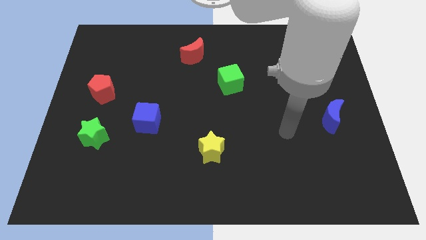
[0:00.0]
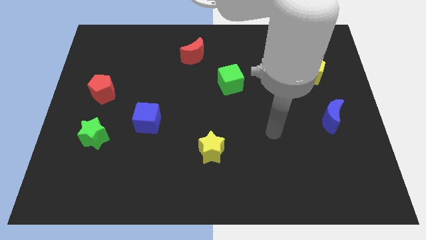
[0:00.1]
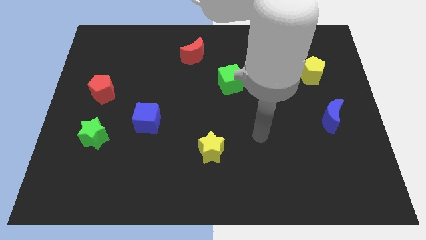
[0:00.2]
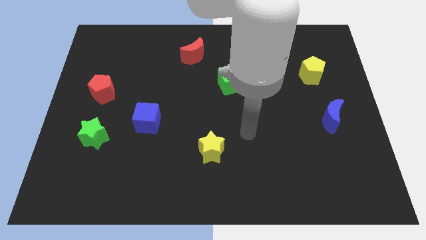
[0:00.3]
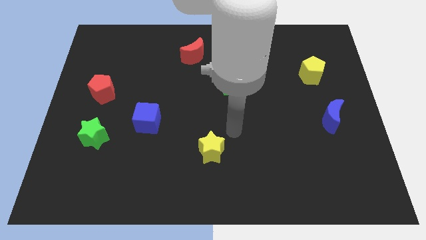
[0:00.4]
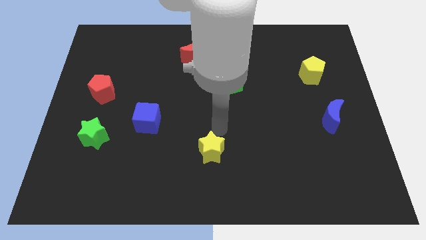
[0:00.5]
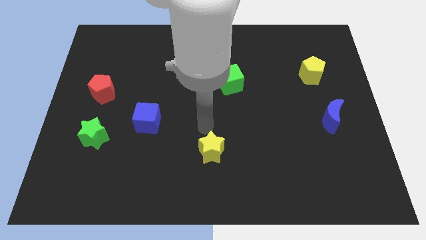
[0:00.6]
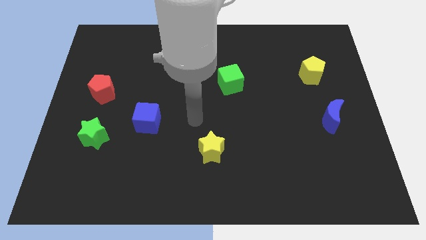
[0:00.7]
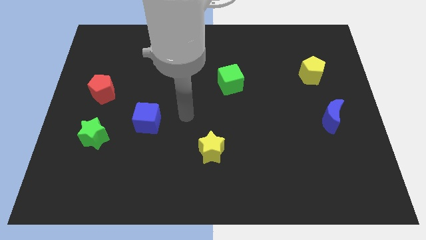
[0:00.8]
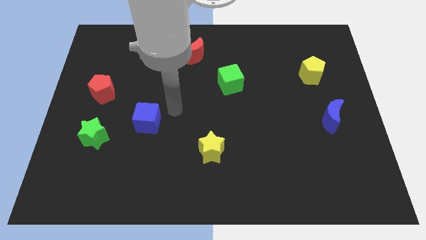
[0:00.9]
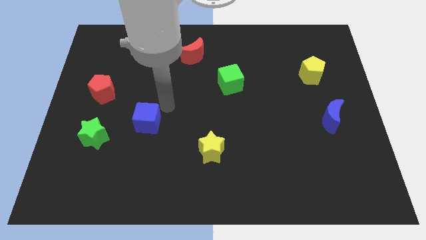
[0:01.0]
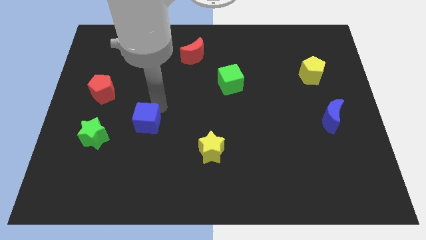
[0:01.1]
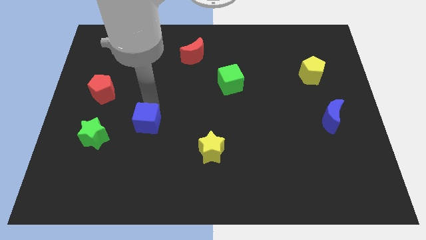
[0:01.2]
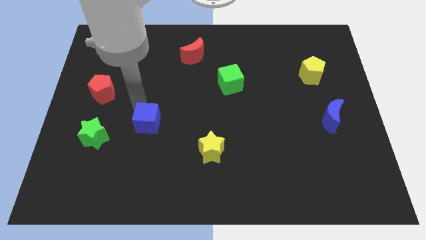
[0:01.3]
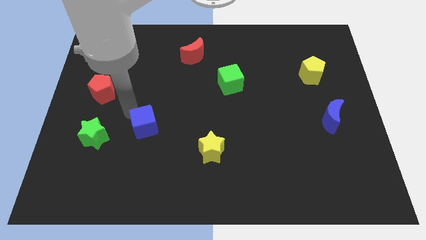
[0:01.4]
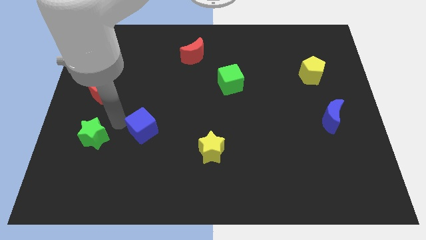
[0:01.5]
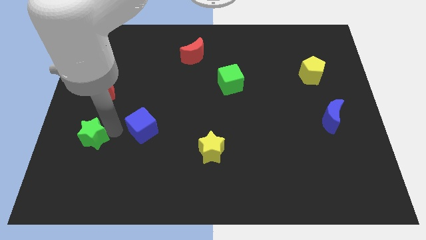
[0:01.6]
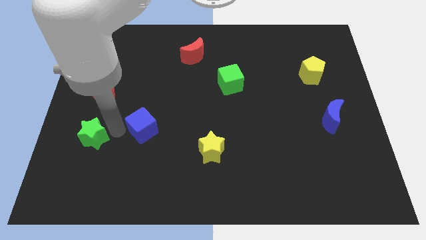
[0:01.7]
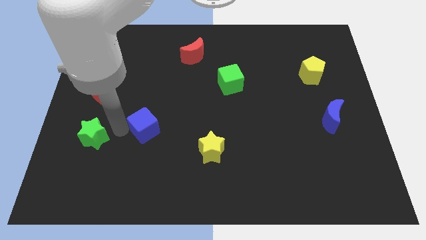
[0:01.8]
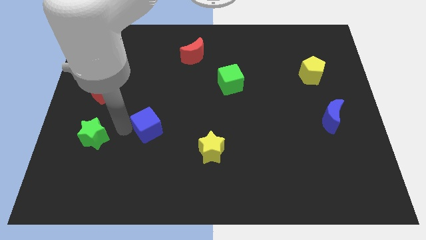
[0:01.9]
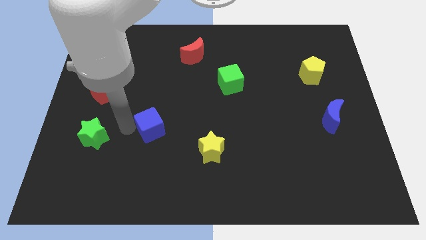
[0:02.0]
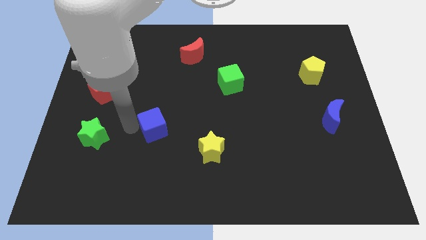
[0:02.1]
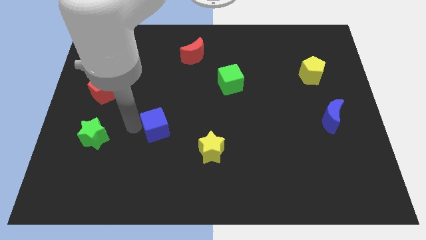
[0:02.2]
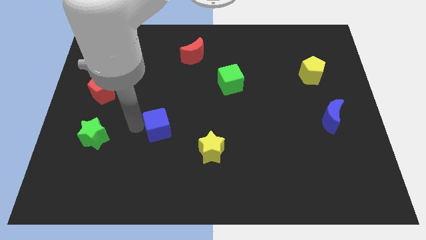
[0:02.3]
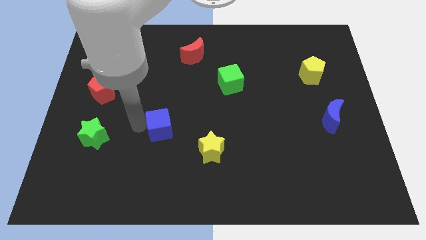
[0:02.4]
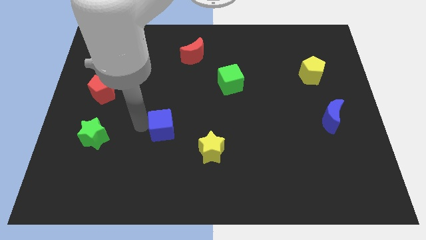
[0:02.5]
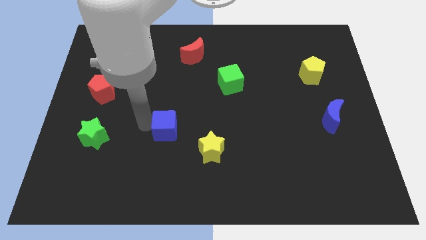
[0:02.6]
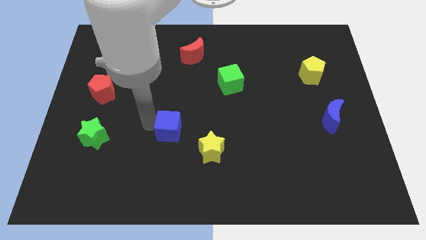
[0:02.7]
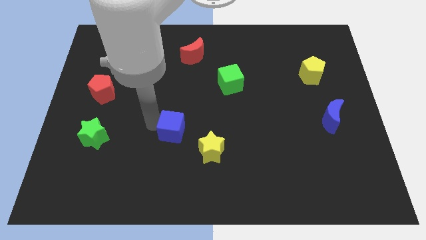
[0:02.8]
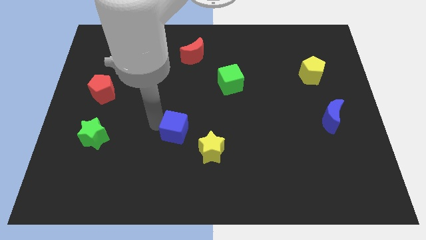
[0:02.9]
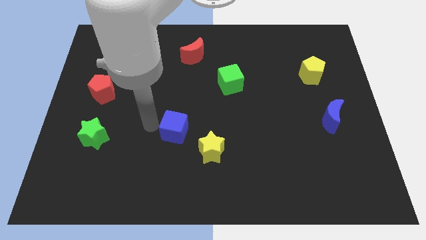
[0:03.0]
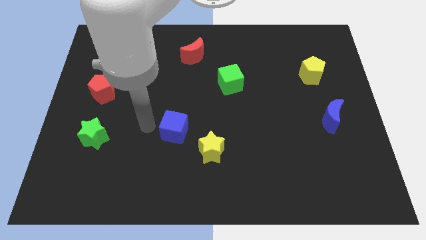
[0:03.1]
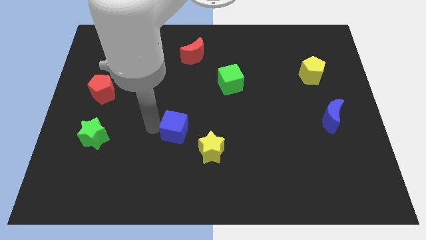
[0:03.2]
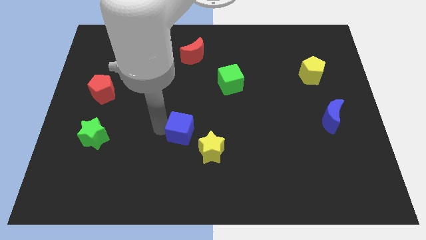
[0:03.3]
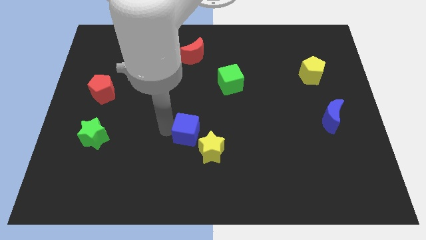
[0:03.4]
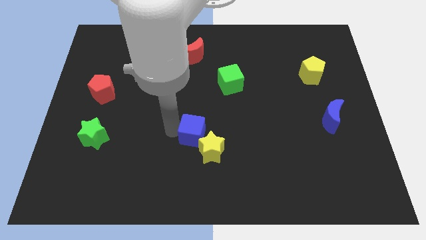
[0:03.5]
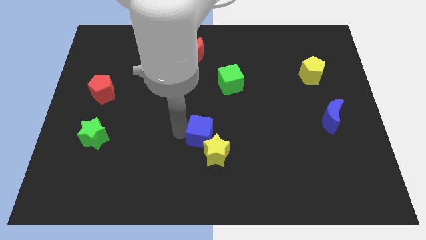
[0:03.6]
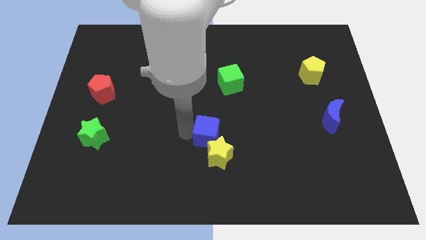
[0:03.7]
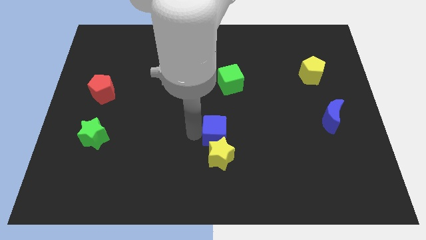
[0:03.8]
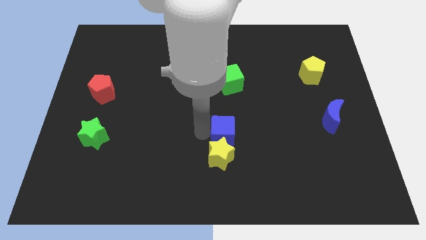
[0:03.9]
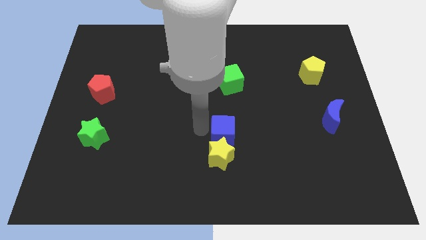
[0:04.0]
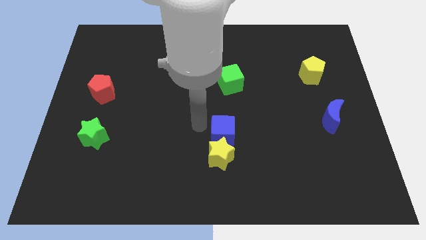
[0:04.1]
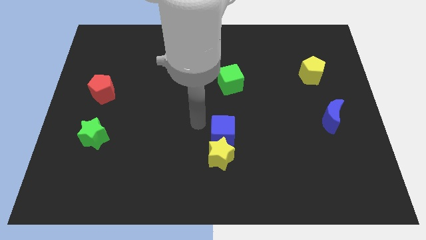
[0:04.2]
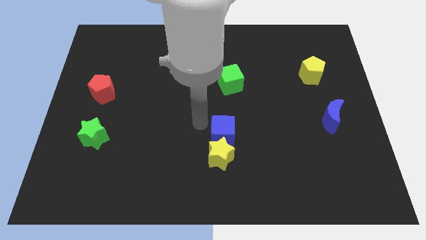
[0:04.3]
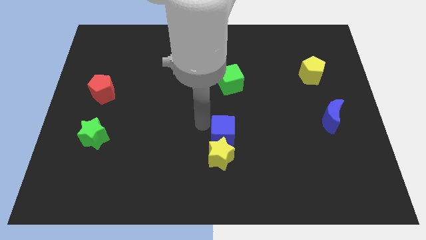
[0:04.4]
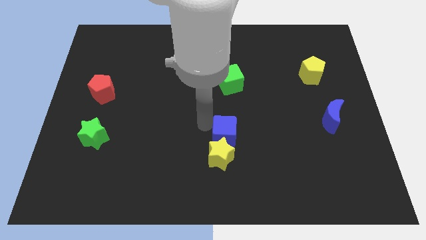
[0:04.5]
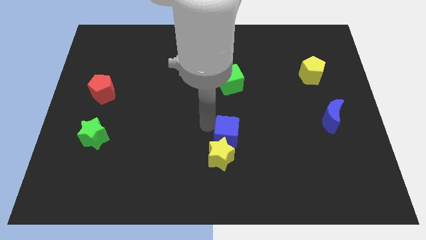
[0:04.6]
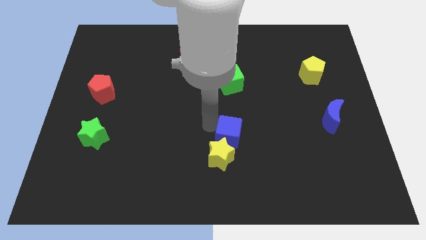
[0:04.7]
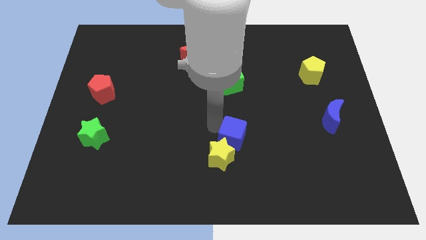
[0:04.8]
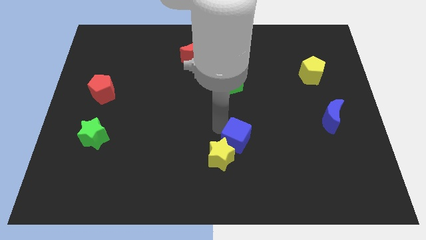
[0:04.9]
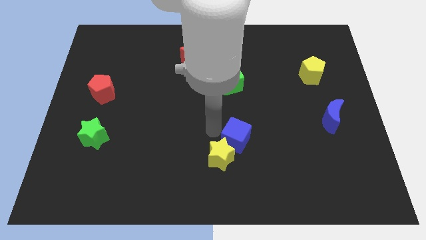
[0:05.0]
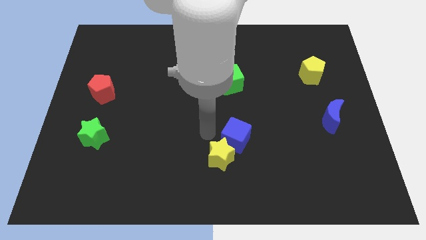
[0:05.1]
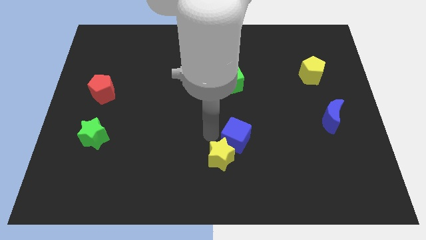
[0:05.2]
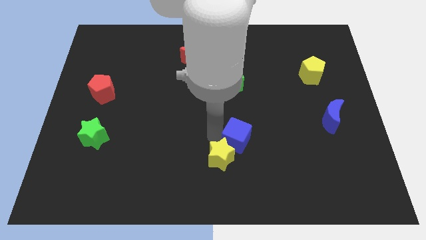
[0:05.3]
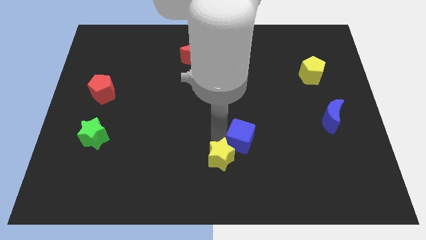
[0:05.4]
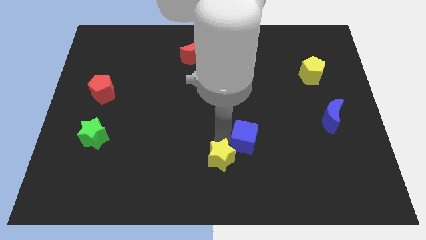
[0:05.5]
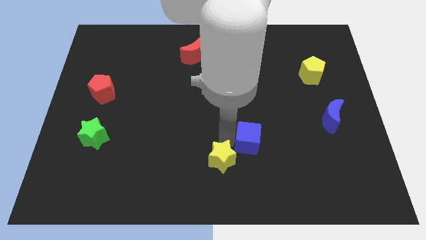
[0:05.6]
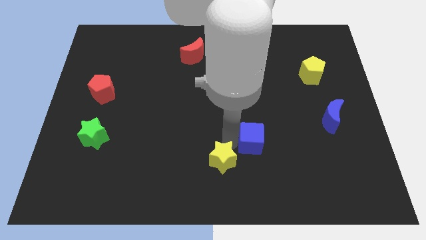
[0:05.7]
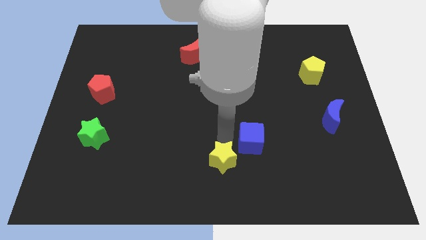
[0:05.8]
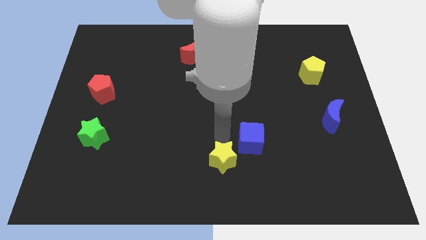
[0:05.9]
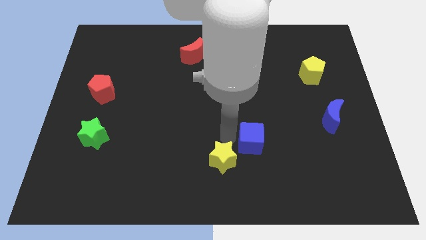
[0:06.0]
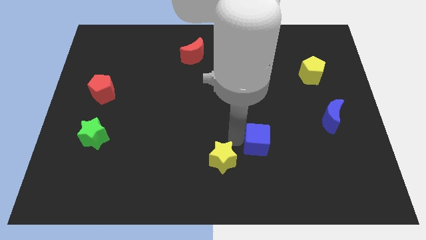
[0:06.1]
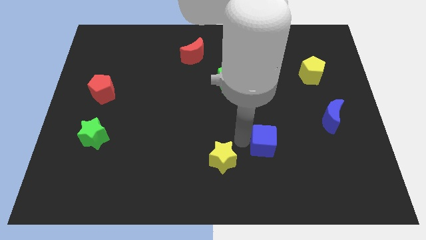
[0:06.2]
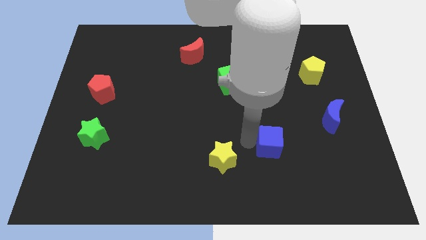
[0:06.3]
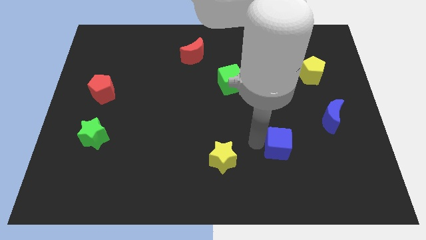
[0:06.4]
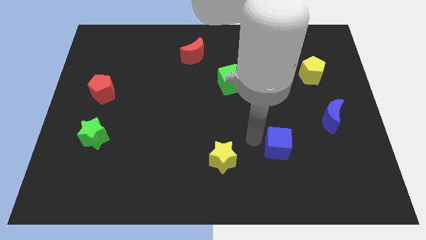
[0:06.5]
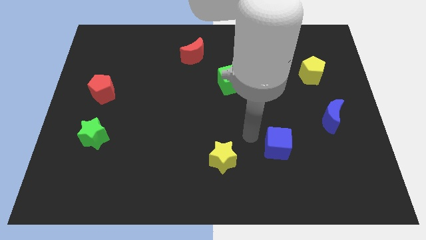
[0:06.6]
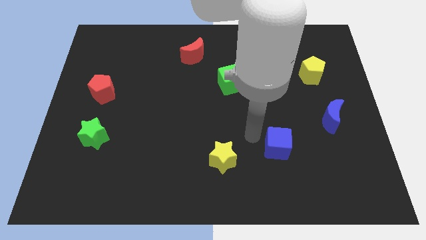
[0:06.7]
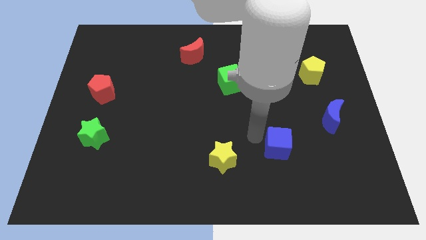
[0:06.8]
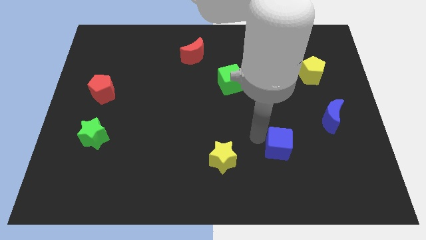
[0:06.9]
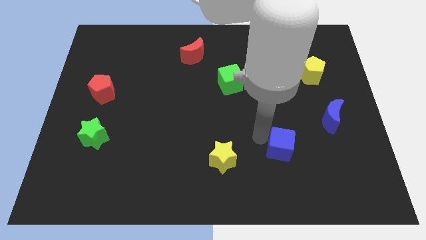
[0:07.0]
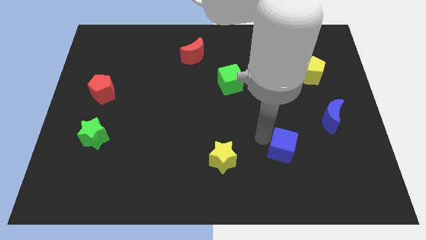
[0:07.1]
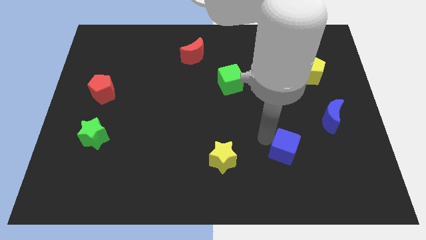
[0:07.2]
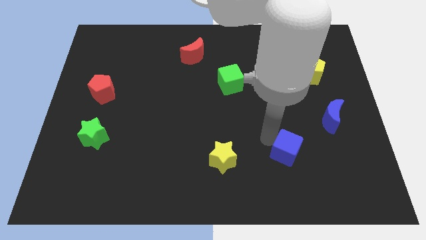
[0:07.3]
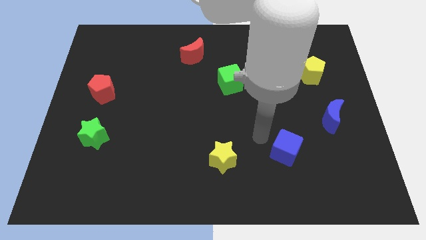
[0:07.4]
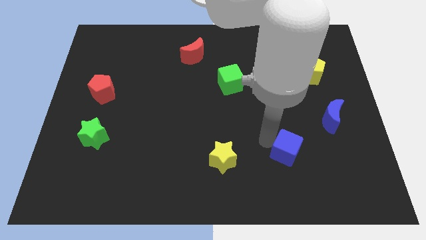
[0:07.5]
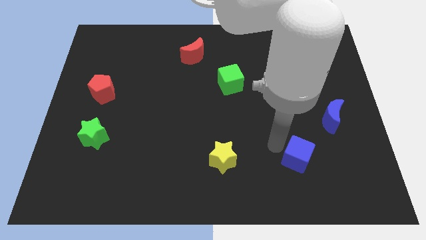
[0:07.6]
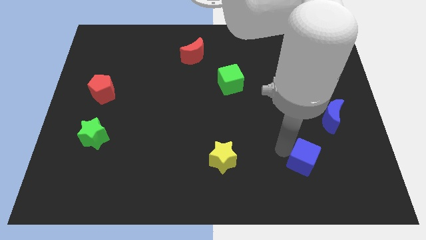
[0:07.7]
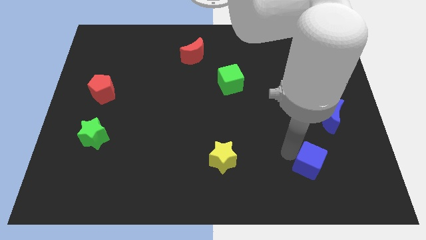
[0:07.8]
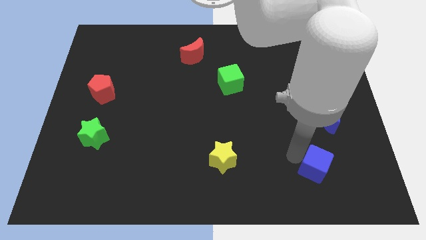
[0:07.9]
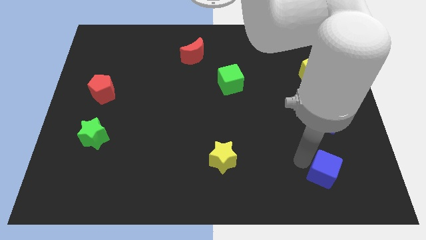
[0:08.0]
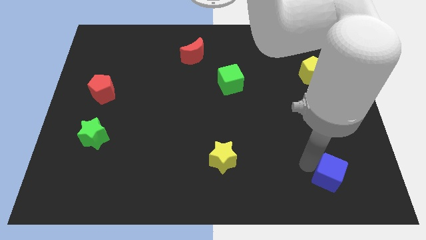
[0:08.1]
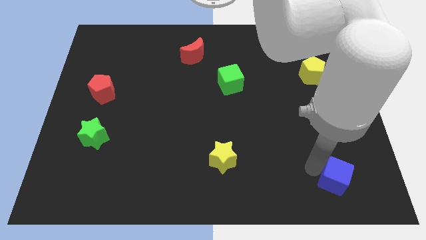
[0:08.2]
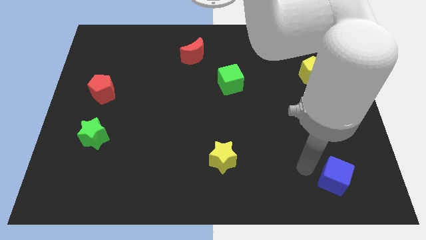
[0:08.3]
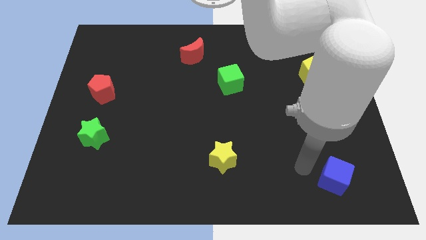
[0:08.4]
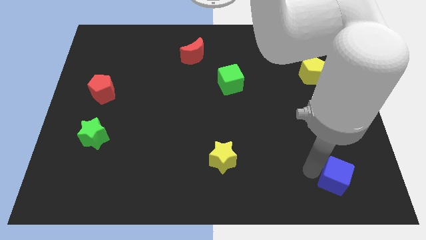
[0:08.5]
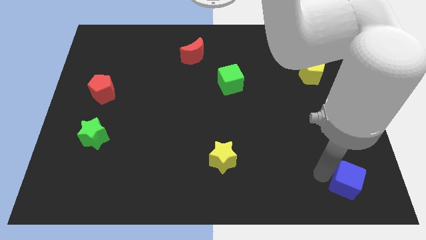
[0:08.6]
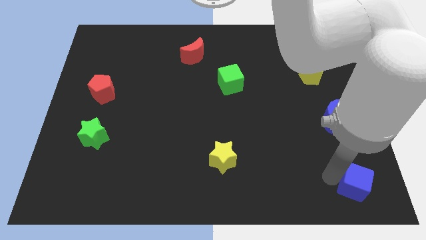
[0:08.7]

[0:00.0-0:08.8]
push the blue cube to the lower right corner
